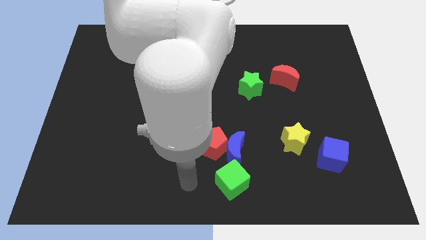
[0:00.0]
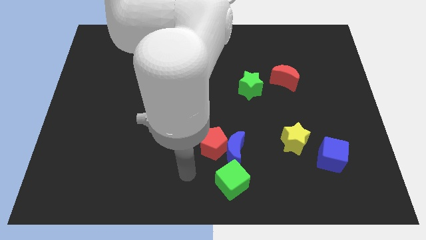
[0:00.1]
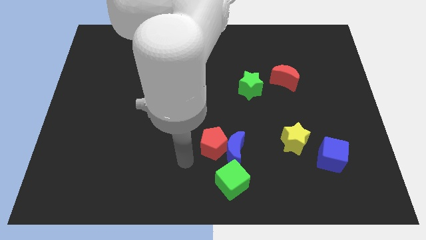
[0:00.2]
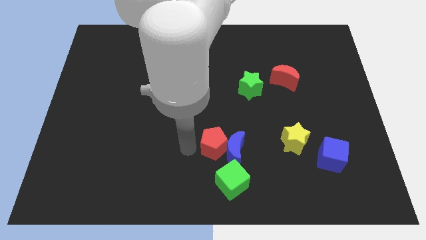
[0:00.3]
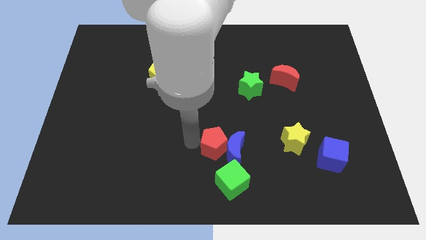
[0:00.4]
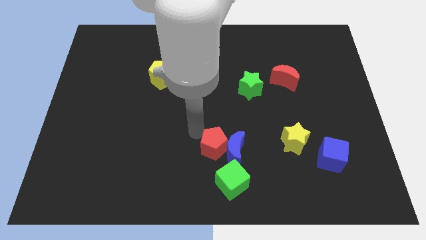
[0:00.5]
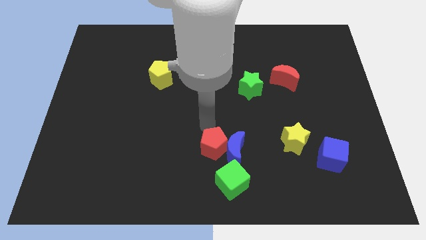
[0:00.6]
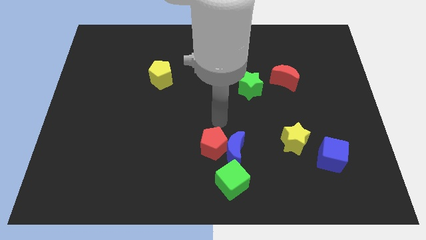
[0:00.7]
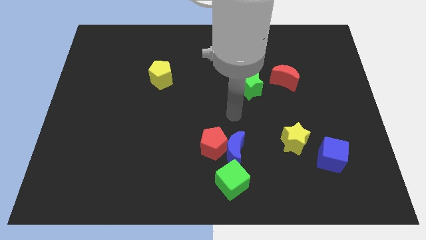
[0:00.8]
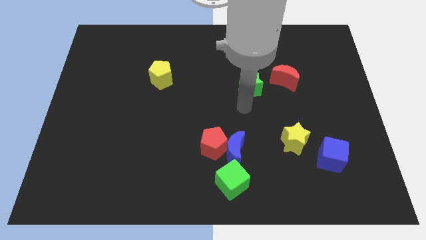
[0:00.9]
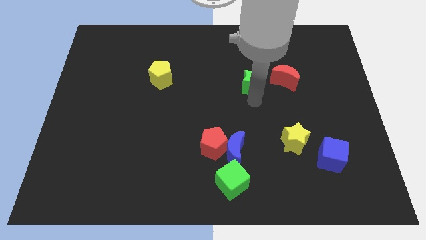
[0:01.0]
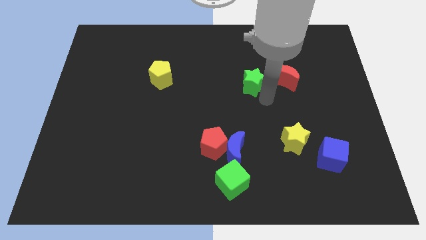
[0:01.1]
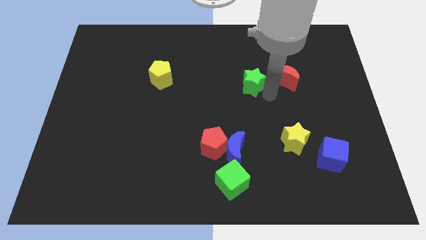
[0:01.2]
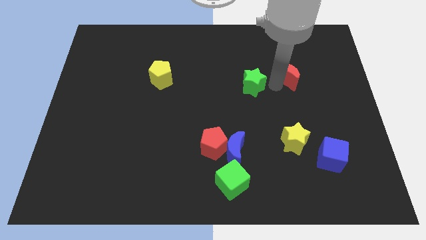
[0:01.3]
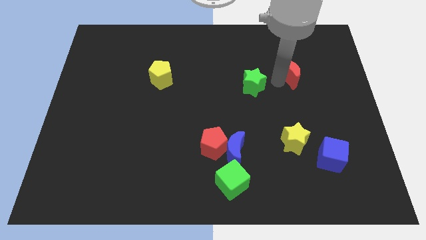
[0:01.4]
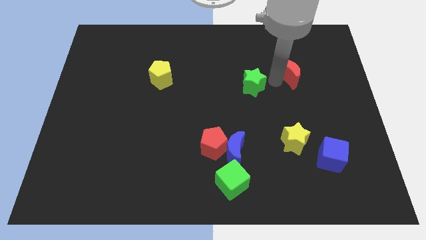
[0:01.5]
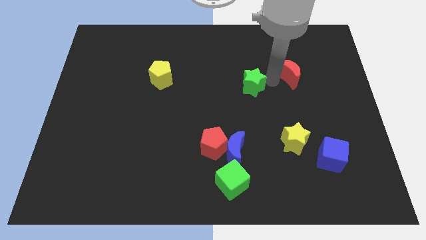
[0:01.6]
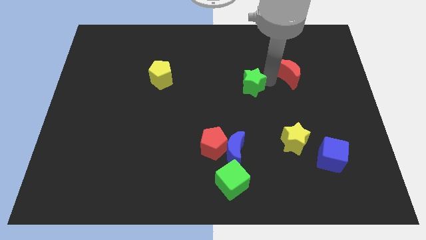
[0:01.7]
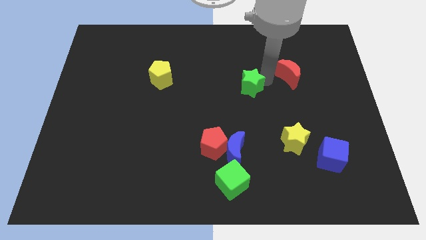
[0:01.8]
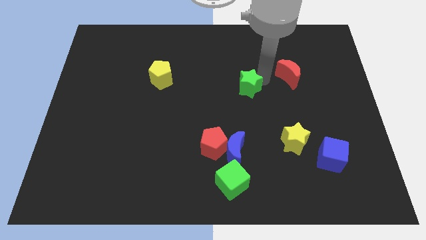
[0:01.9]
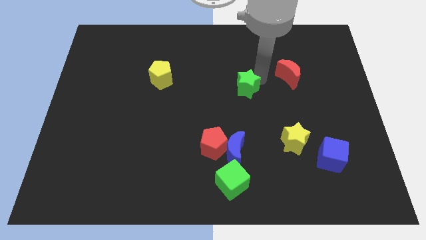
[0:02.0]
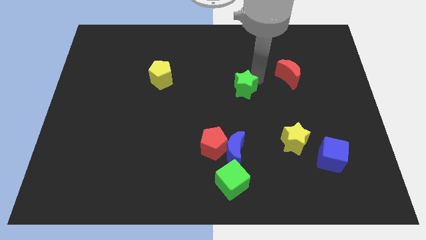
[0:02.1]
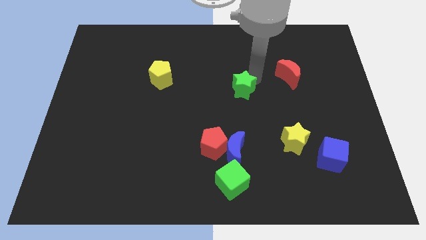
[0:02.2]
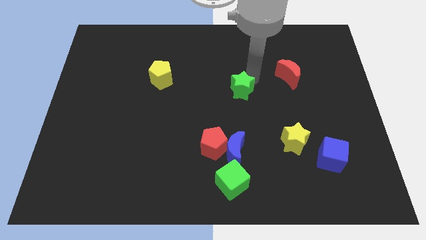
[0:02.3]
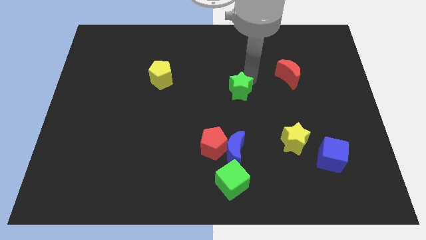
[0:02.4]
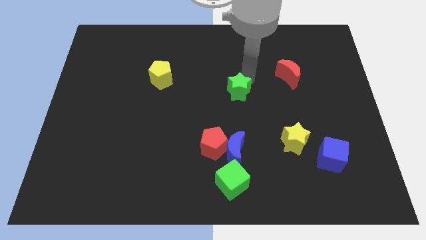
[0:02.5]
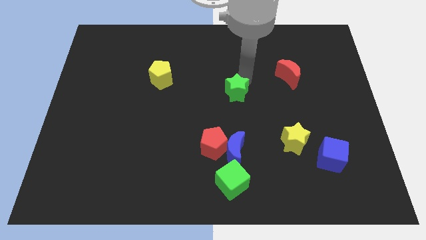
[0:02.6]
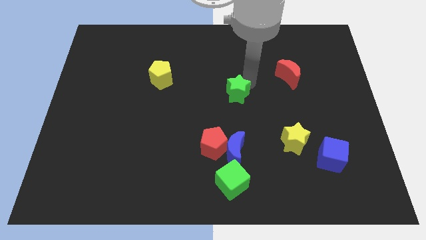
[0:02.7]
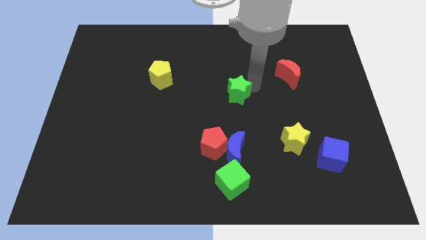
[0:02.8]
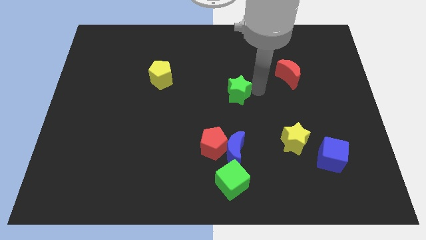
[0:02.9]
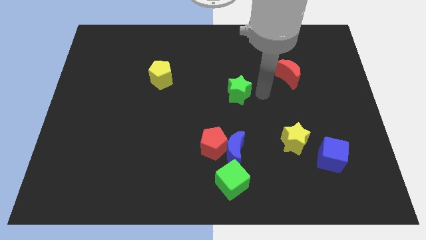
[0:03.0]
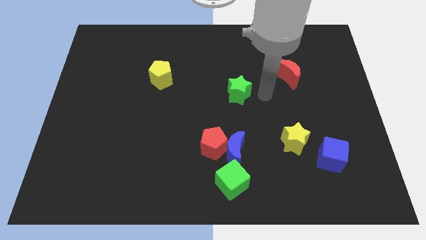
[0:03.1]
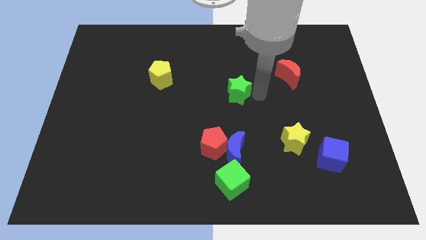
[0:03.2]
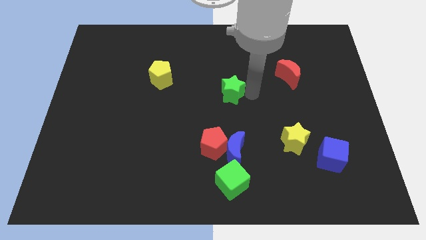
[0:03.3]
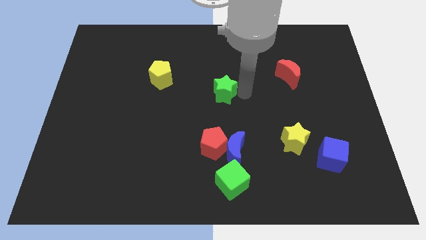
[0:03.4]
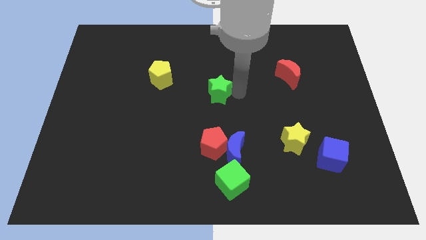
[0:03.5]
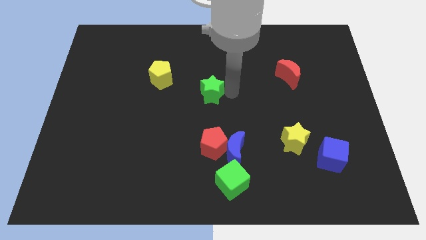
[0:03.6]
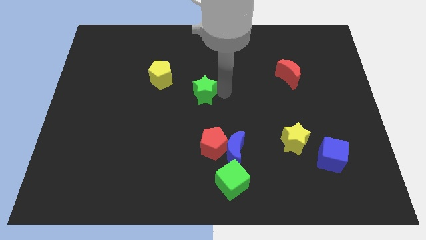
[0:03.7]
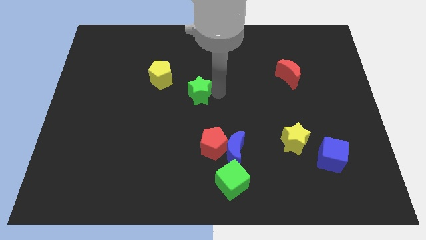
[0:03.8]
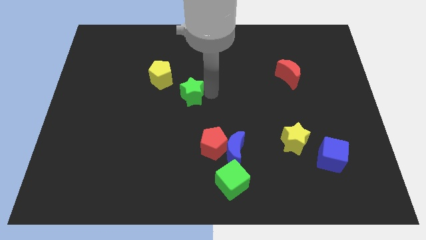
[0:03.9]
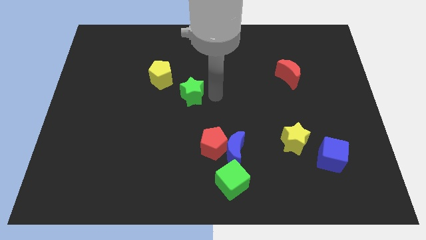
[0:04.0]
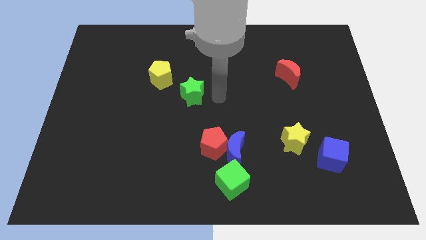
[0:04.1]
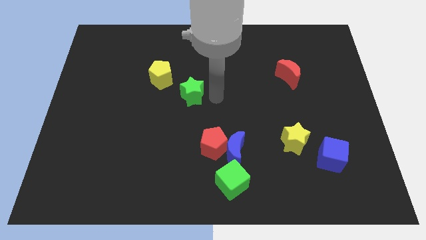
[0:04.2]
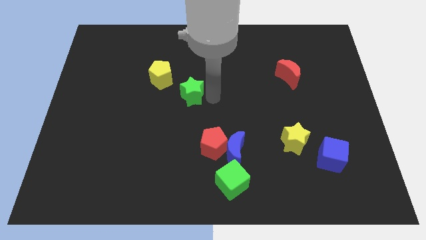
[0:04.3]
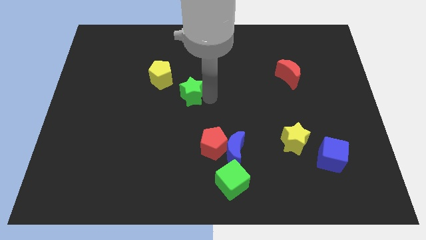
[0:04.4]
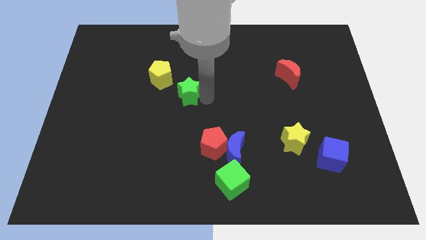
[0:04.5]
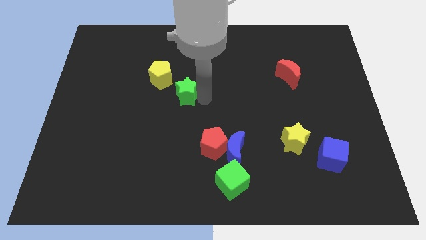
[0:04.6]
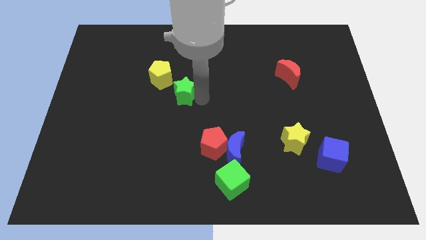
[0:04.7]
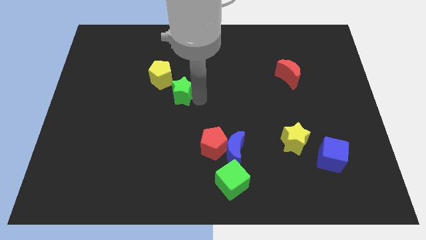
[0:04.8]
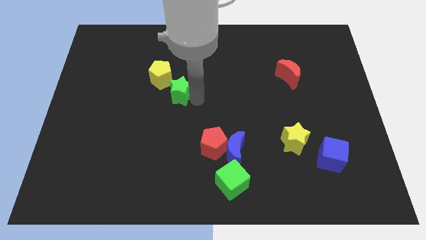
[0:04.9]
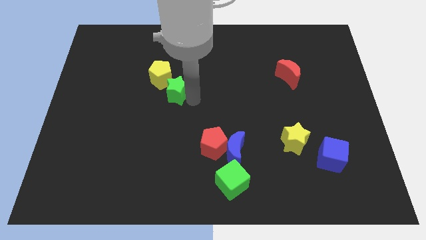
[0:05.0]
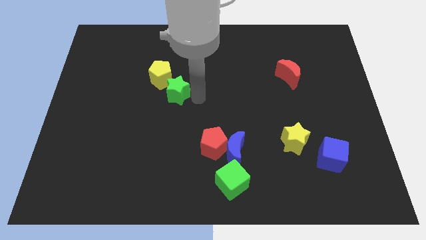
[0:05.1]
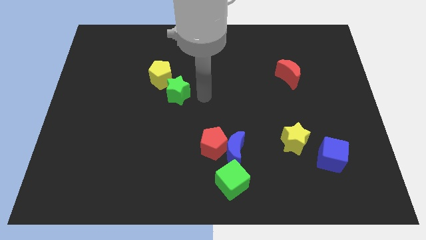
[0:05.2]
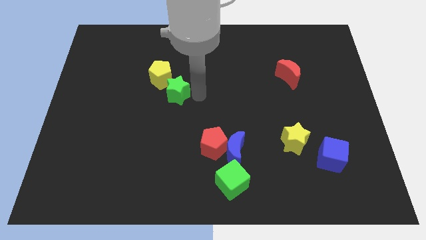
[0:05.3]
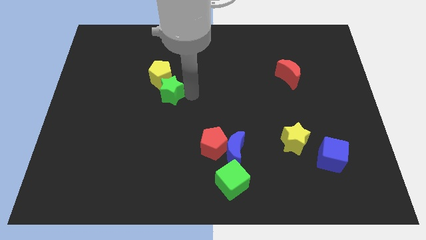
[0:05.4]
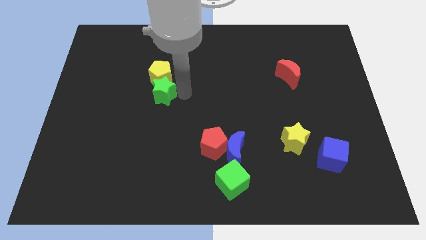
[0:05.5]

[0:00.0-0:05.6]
move the green star to the left

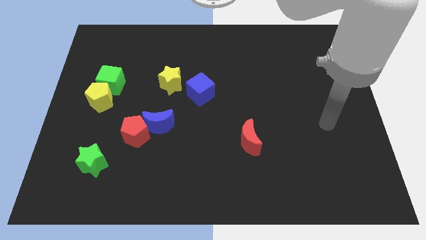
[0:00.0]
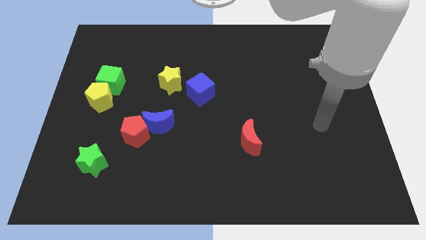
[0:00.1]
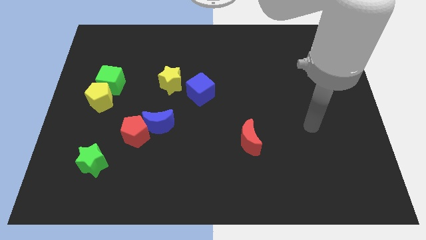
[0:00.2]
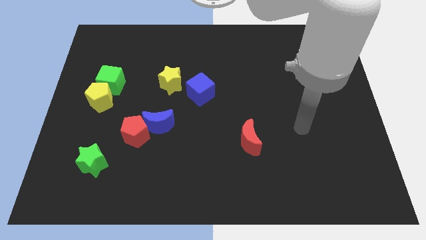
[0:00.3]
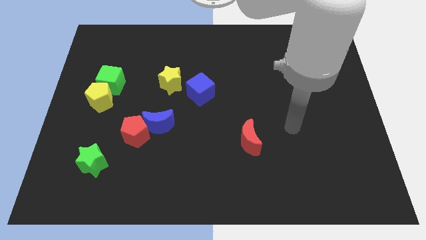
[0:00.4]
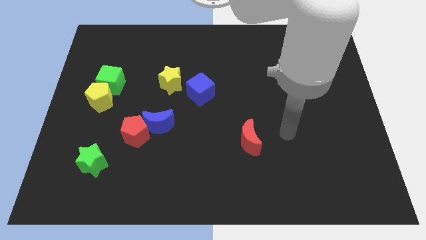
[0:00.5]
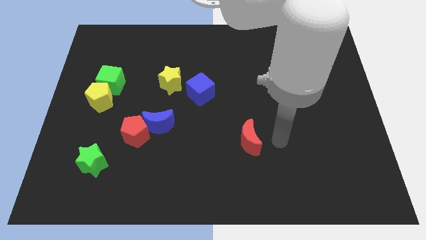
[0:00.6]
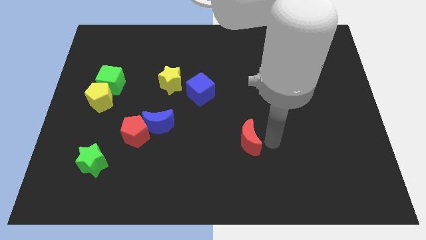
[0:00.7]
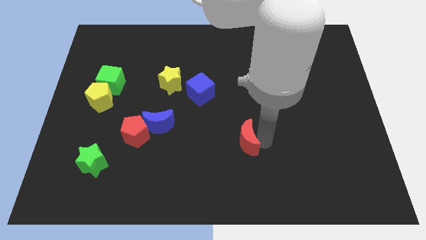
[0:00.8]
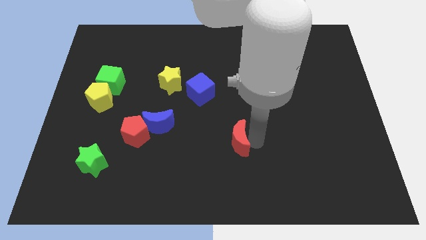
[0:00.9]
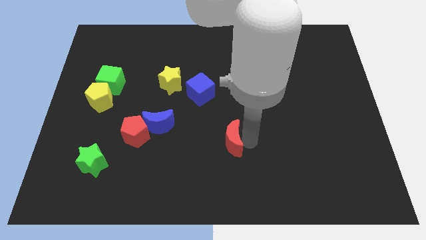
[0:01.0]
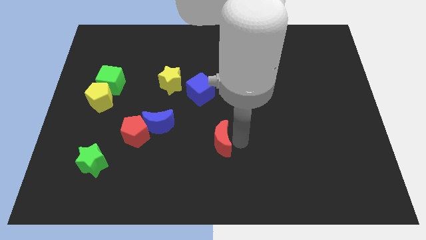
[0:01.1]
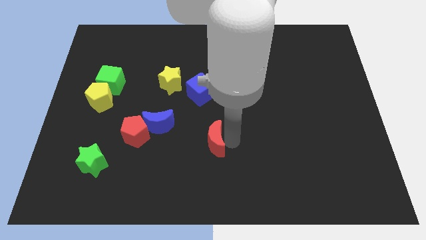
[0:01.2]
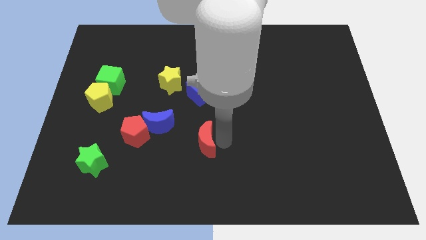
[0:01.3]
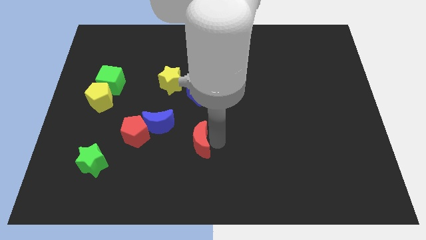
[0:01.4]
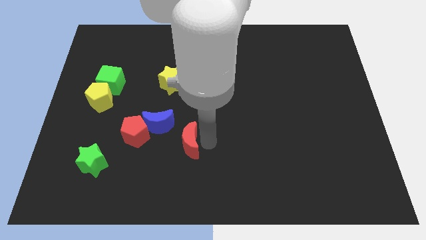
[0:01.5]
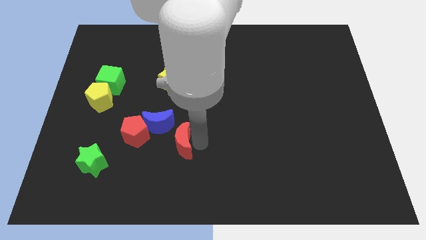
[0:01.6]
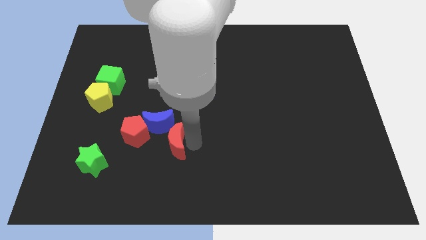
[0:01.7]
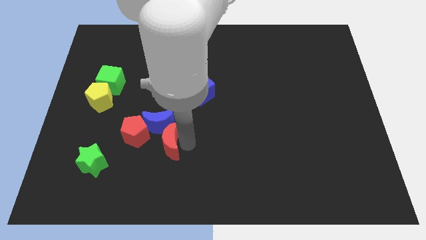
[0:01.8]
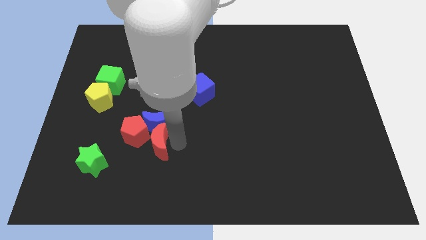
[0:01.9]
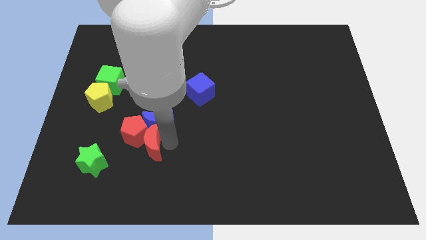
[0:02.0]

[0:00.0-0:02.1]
push the red moon to the left

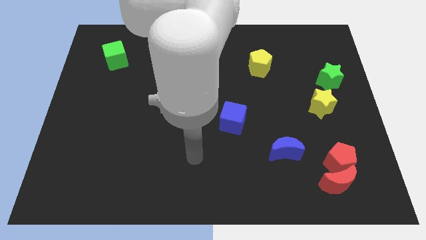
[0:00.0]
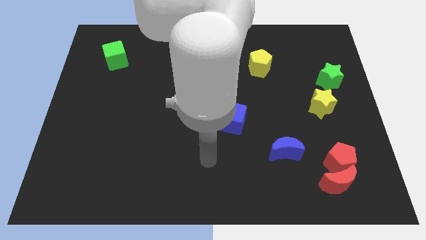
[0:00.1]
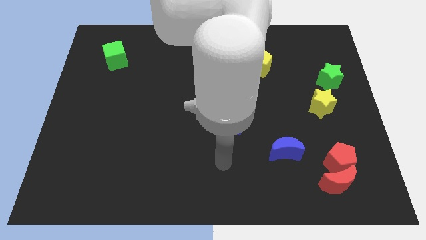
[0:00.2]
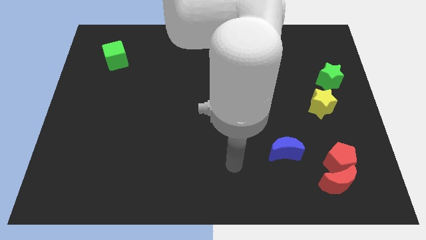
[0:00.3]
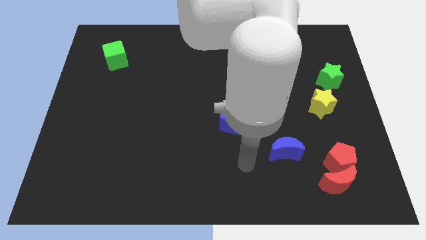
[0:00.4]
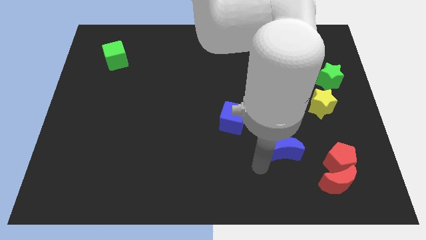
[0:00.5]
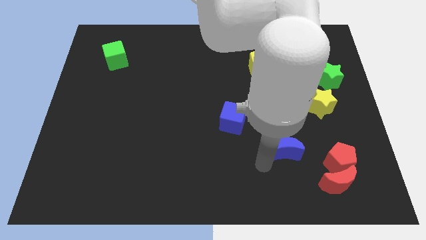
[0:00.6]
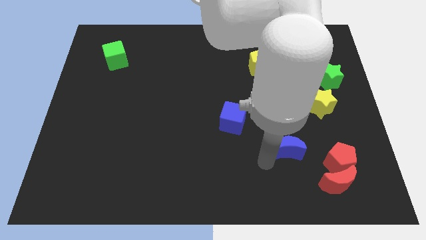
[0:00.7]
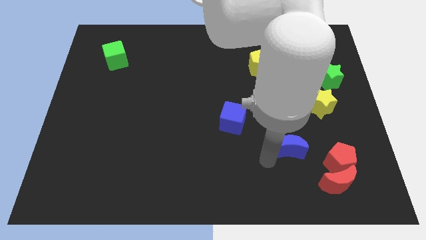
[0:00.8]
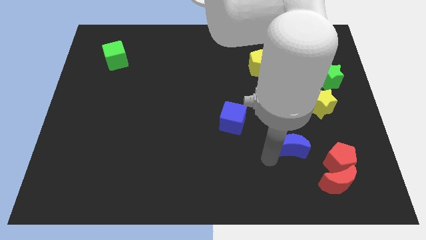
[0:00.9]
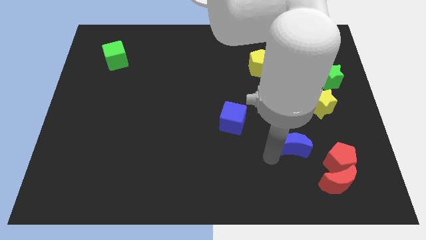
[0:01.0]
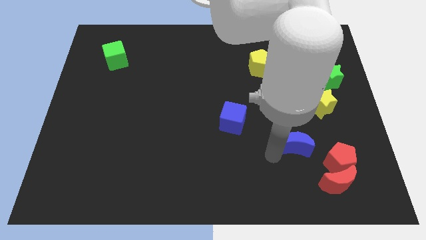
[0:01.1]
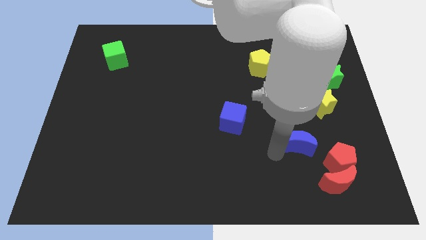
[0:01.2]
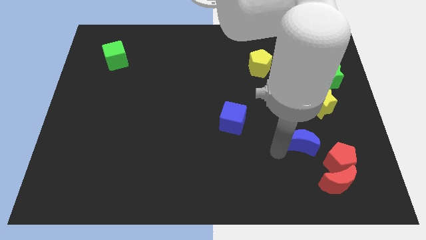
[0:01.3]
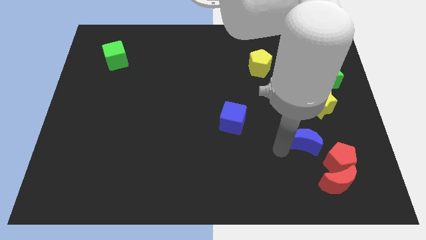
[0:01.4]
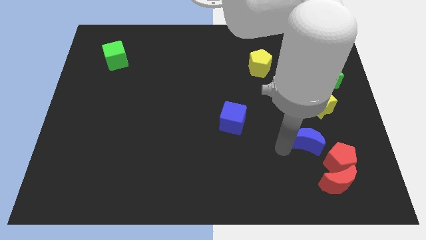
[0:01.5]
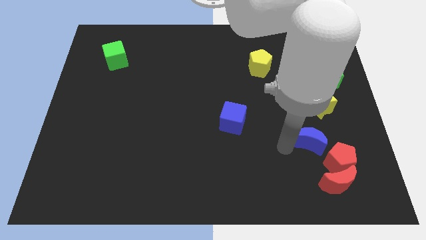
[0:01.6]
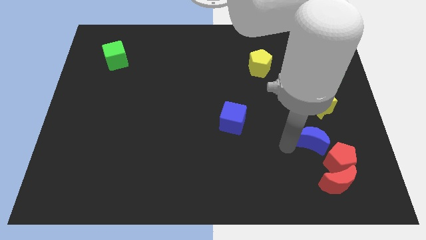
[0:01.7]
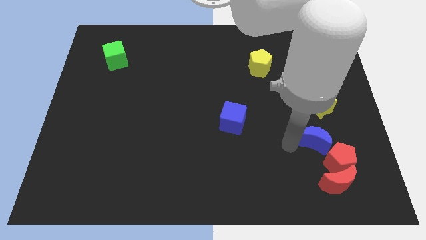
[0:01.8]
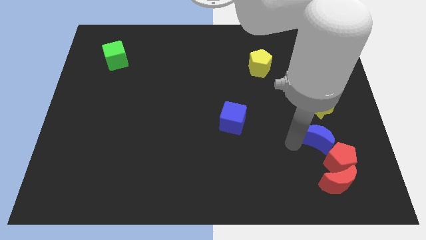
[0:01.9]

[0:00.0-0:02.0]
slide the blue moon a little bit up and then right
